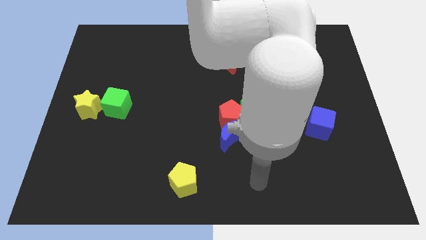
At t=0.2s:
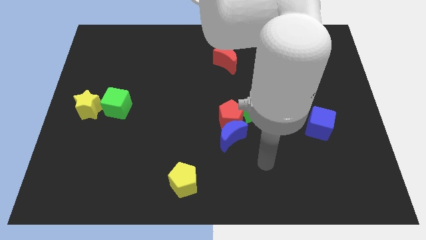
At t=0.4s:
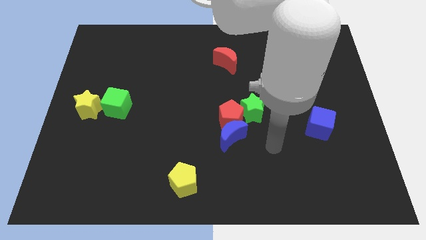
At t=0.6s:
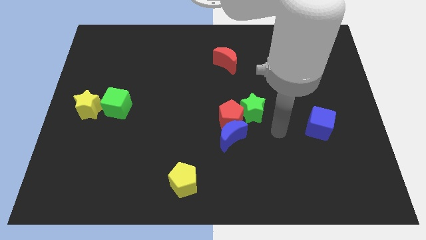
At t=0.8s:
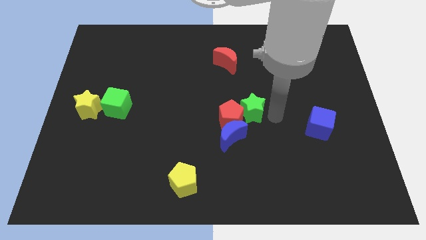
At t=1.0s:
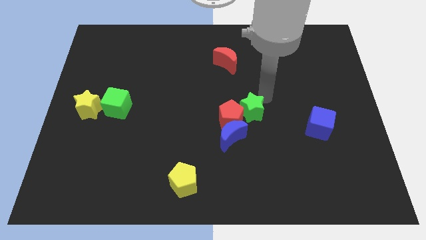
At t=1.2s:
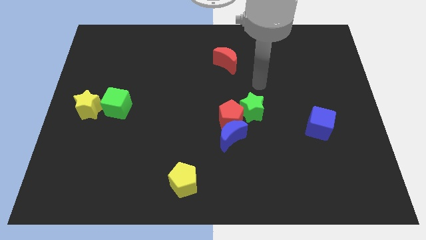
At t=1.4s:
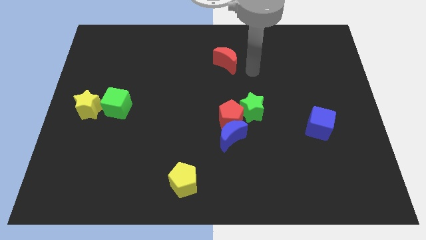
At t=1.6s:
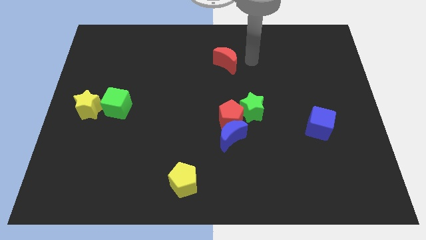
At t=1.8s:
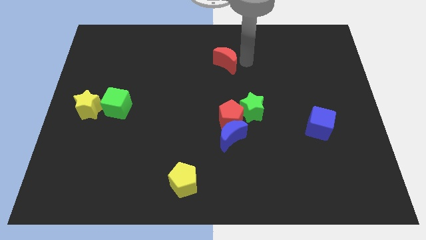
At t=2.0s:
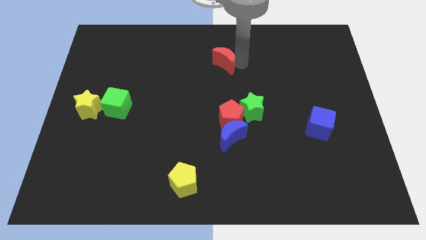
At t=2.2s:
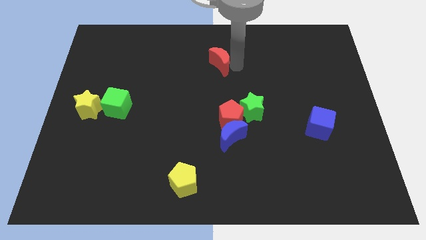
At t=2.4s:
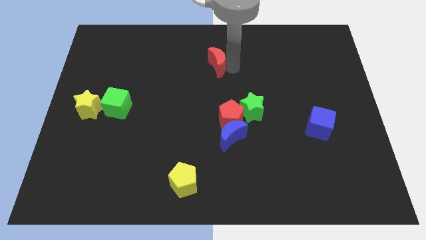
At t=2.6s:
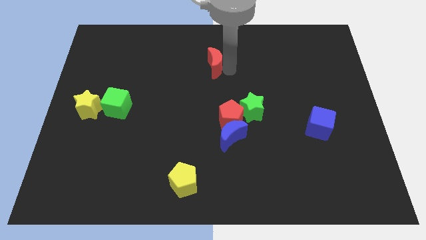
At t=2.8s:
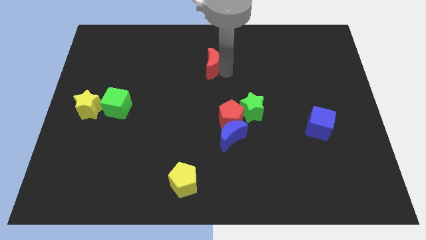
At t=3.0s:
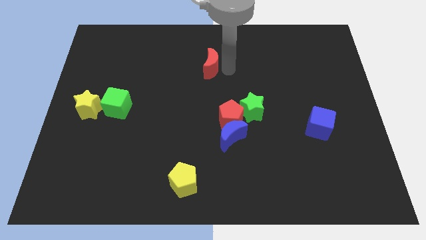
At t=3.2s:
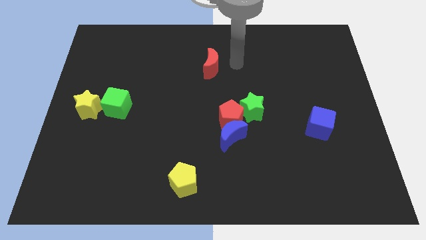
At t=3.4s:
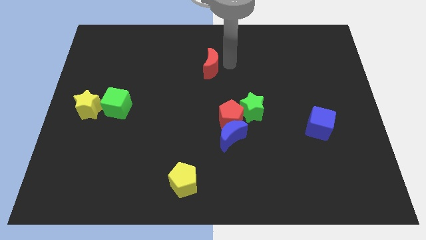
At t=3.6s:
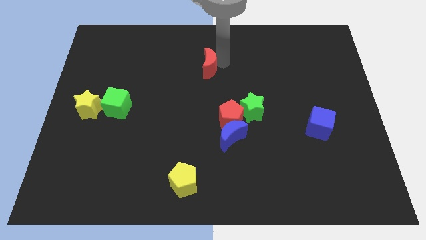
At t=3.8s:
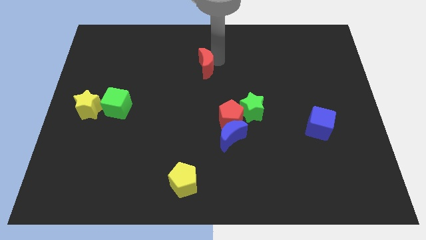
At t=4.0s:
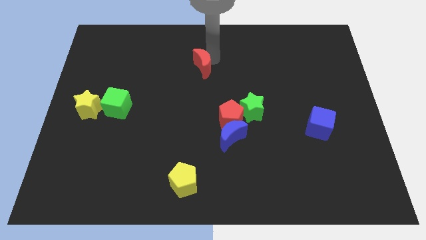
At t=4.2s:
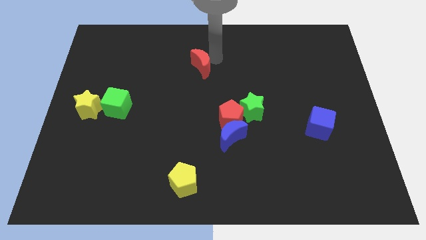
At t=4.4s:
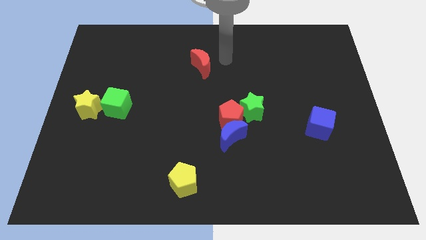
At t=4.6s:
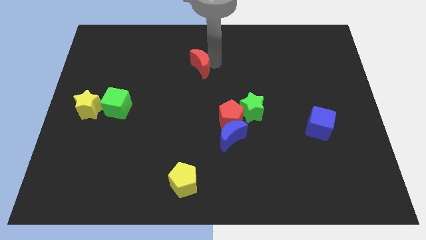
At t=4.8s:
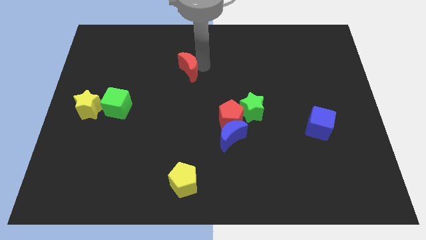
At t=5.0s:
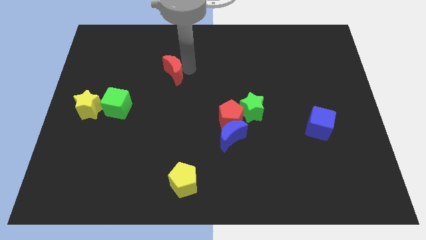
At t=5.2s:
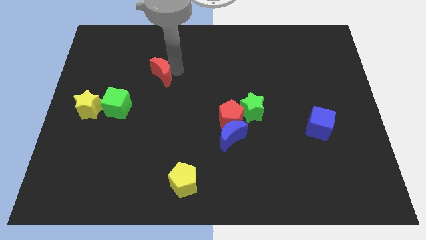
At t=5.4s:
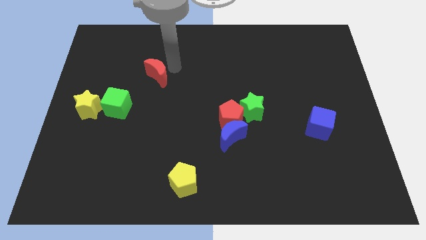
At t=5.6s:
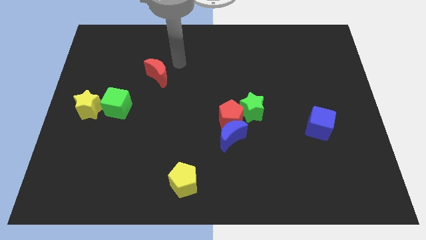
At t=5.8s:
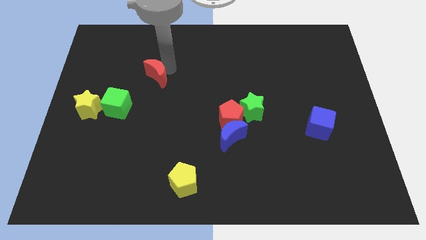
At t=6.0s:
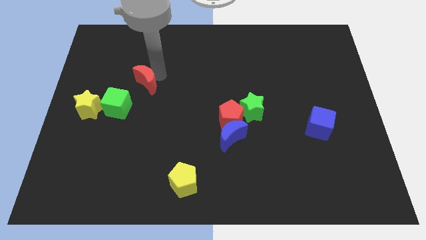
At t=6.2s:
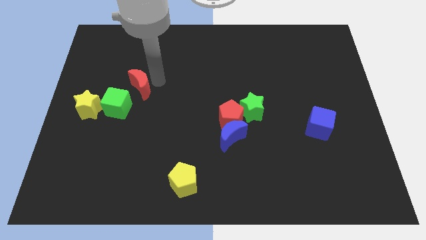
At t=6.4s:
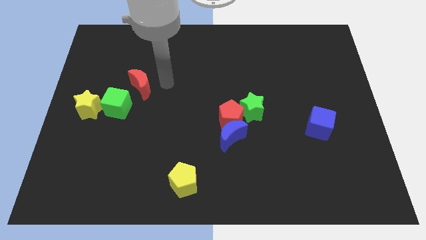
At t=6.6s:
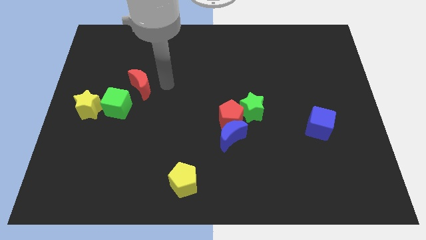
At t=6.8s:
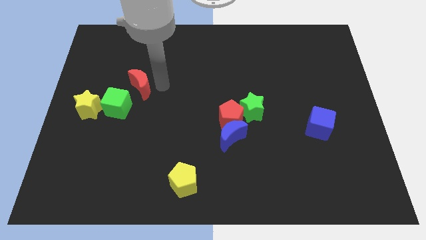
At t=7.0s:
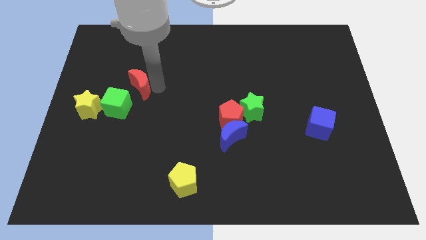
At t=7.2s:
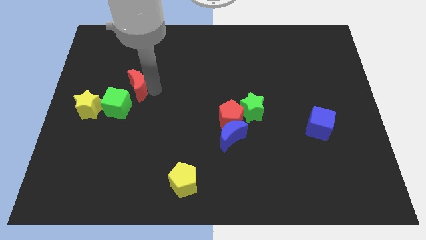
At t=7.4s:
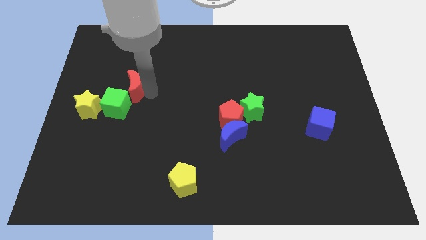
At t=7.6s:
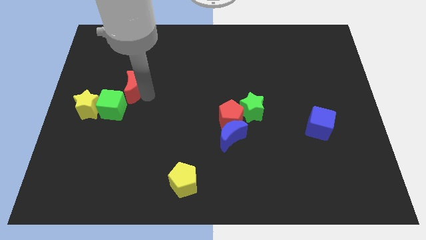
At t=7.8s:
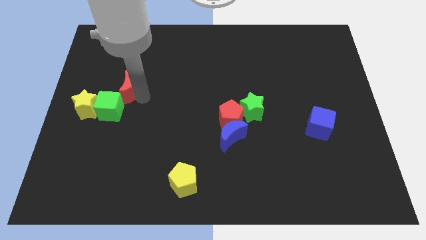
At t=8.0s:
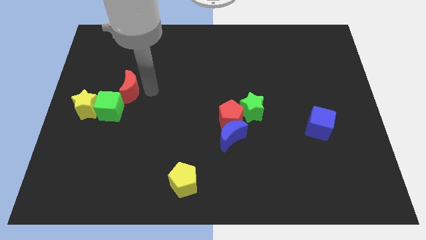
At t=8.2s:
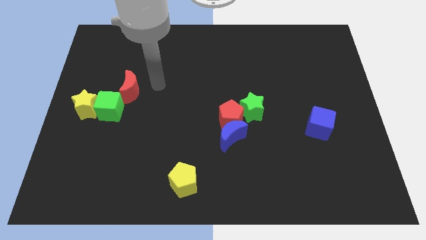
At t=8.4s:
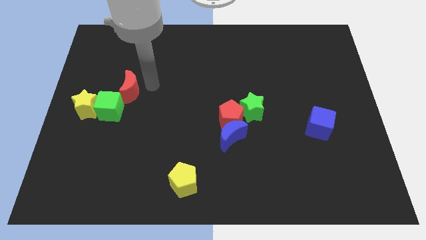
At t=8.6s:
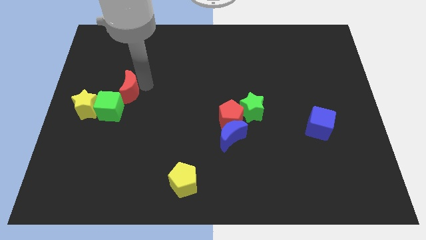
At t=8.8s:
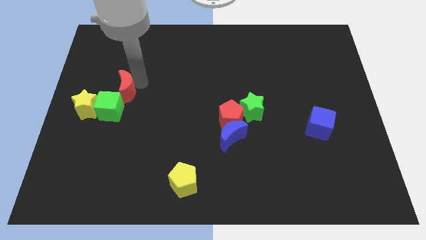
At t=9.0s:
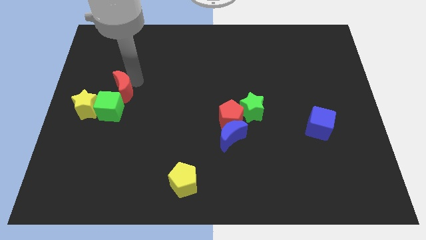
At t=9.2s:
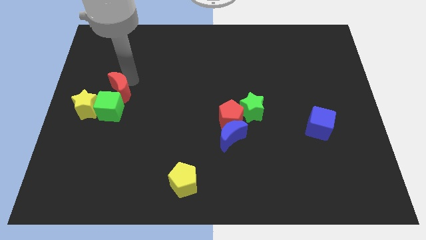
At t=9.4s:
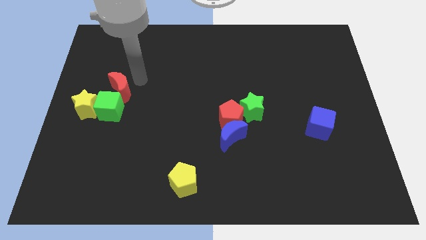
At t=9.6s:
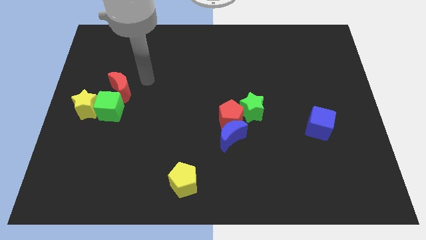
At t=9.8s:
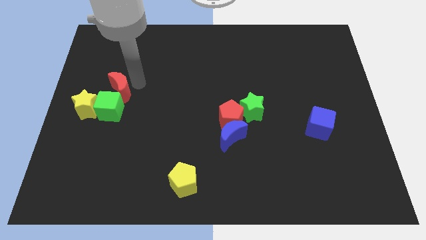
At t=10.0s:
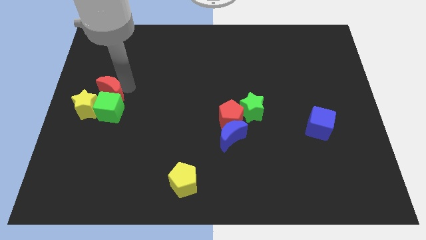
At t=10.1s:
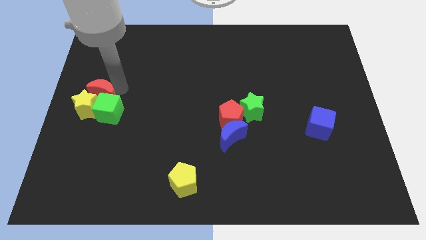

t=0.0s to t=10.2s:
put the red moon towards the yellow star

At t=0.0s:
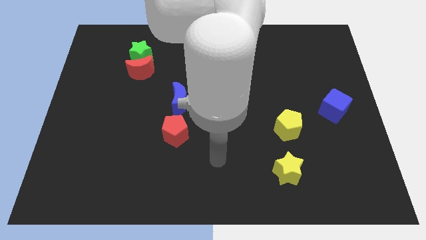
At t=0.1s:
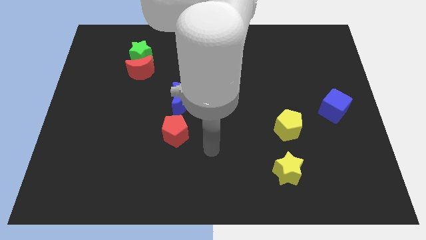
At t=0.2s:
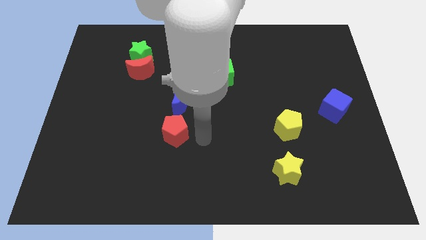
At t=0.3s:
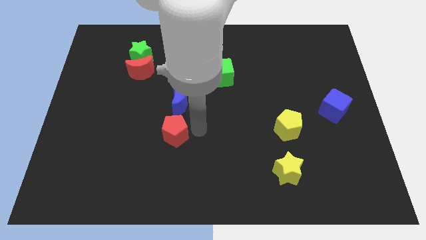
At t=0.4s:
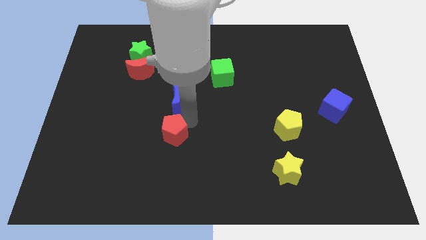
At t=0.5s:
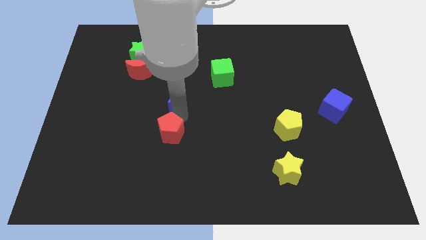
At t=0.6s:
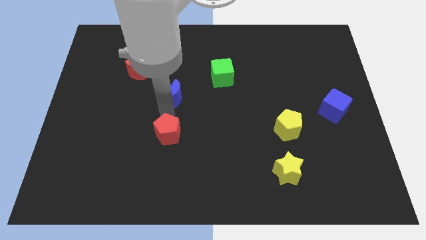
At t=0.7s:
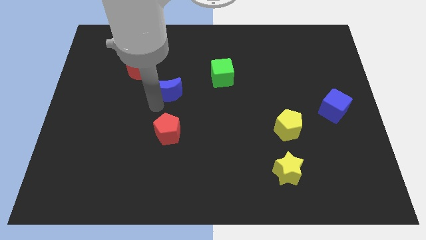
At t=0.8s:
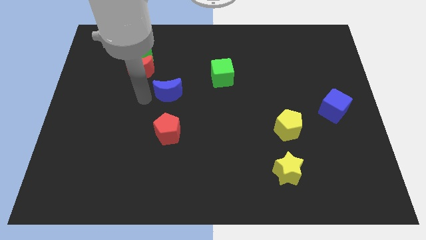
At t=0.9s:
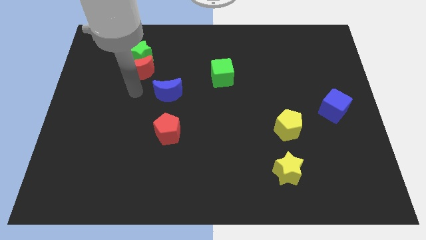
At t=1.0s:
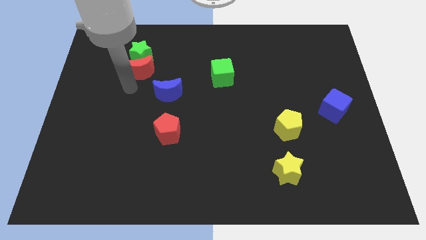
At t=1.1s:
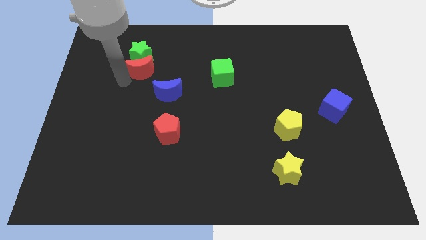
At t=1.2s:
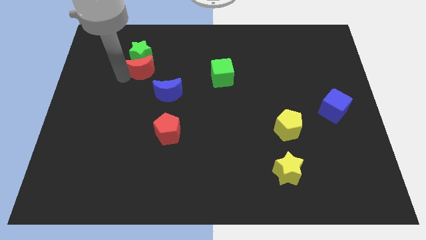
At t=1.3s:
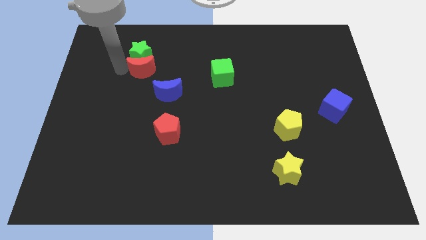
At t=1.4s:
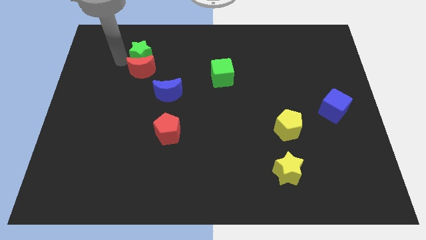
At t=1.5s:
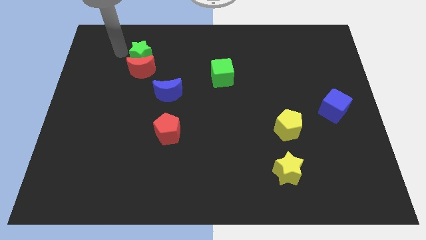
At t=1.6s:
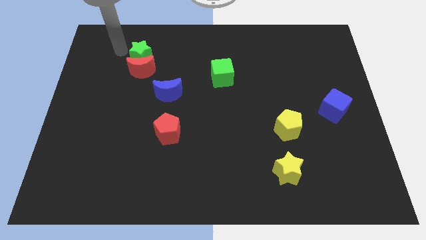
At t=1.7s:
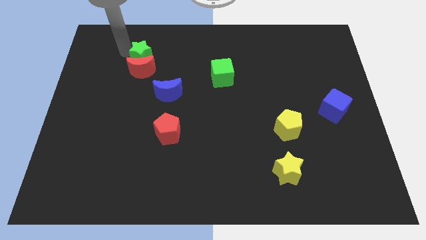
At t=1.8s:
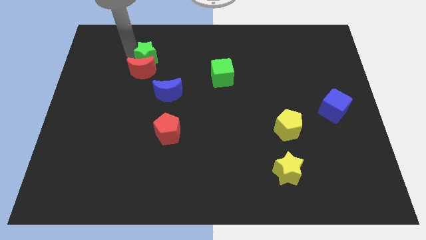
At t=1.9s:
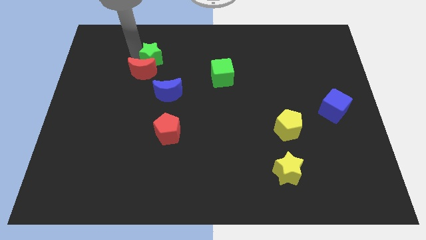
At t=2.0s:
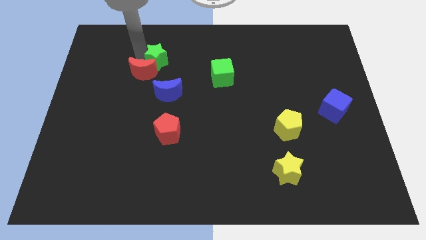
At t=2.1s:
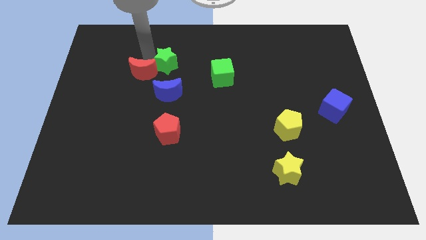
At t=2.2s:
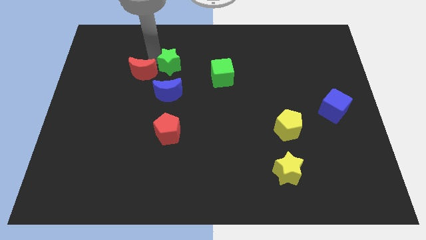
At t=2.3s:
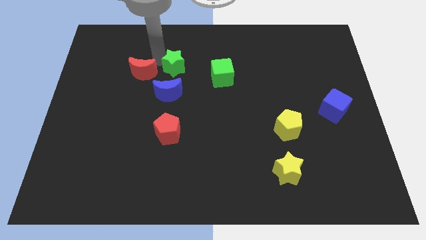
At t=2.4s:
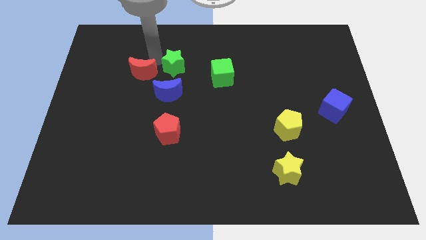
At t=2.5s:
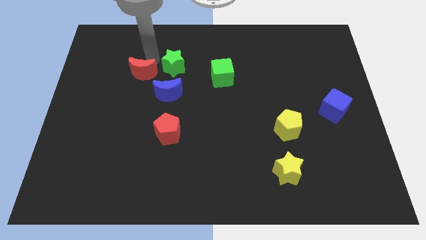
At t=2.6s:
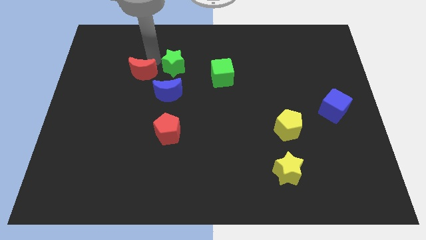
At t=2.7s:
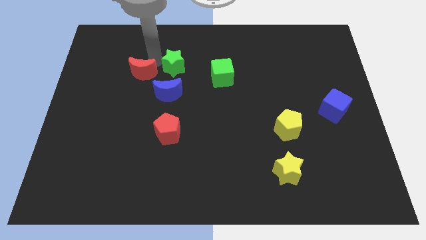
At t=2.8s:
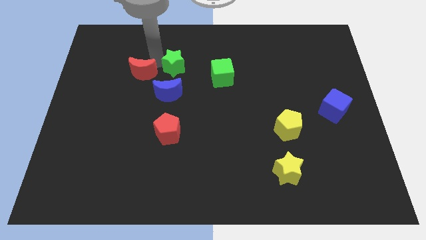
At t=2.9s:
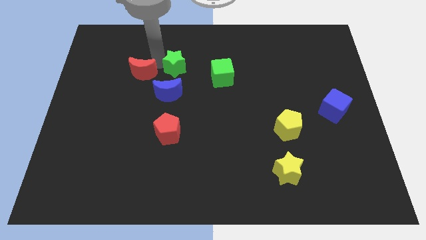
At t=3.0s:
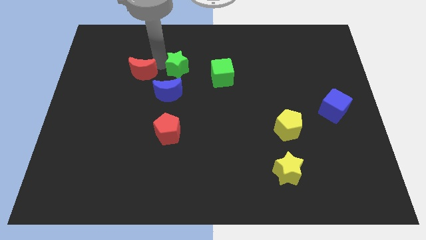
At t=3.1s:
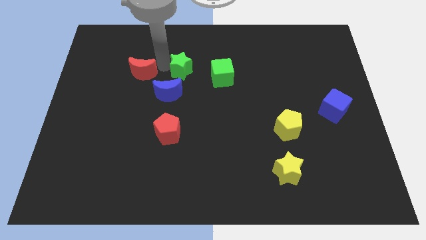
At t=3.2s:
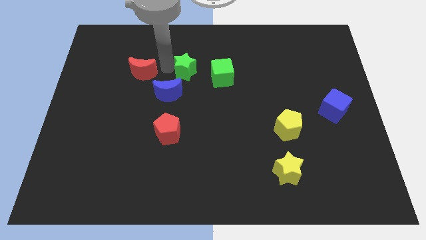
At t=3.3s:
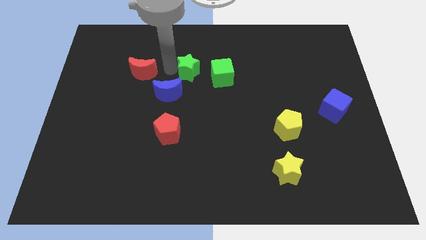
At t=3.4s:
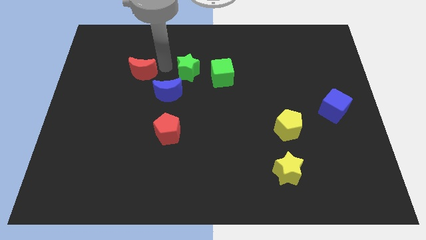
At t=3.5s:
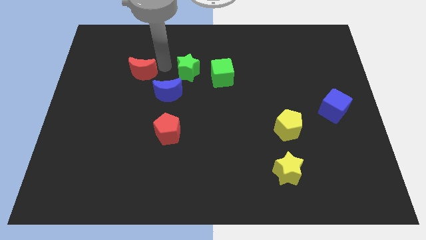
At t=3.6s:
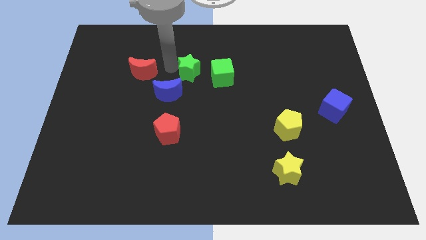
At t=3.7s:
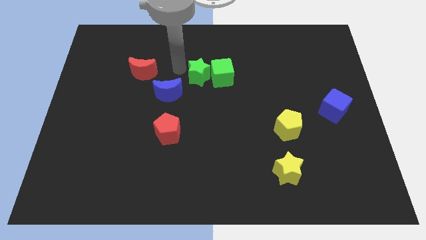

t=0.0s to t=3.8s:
slide the green star to the green cube
